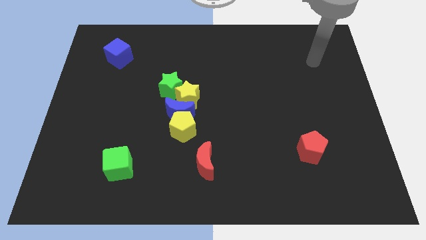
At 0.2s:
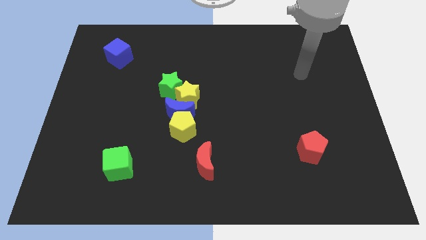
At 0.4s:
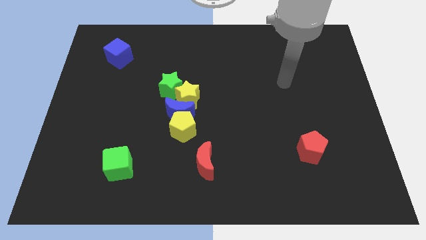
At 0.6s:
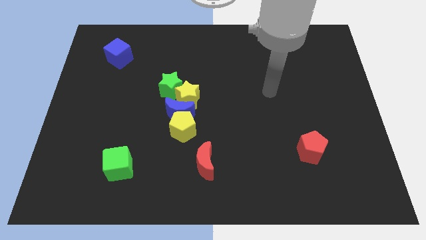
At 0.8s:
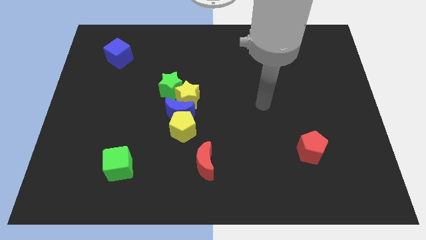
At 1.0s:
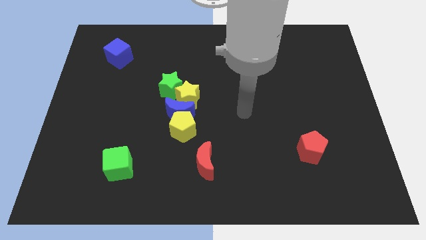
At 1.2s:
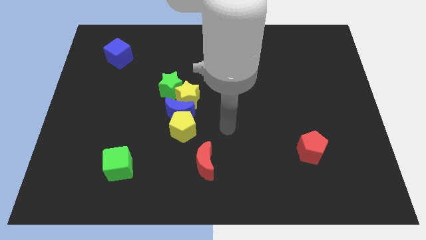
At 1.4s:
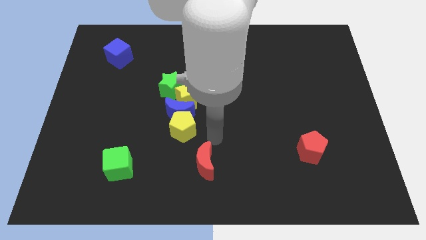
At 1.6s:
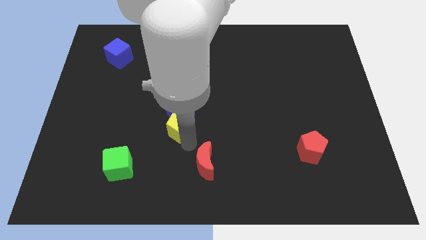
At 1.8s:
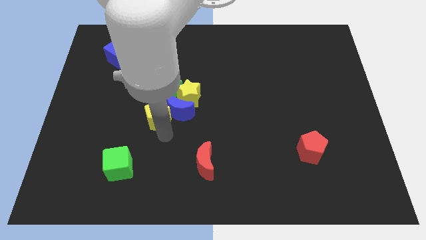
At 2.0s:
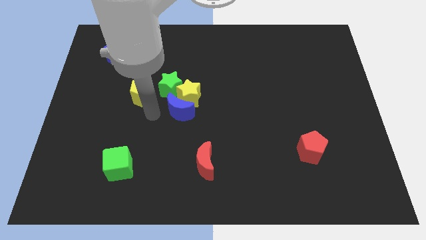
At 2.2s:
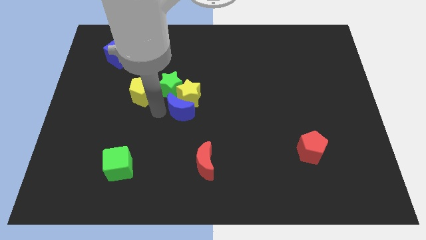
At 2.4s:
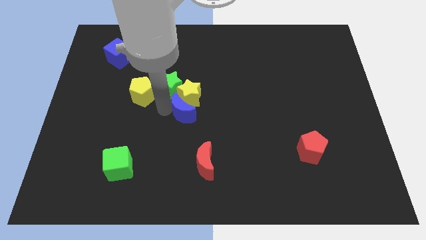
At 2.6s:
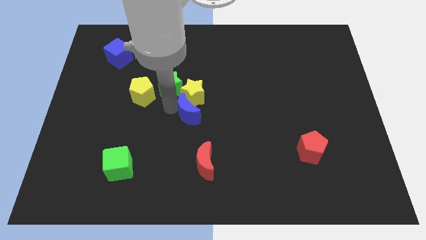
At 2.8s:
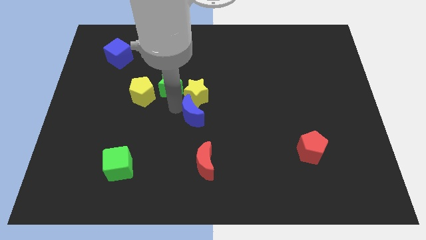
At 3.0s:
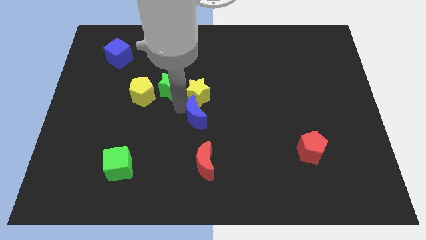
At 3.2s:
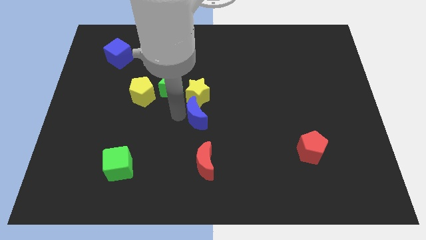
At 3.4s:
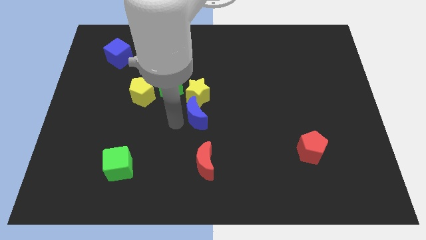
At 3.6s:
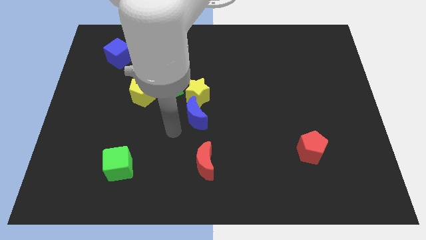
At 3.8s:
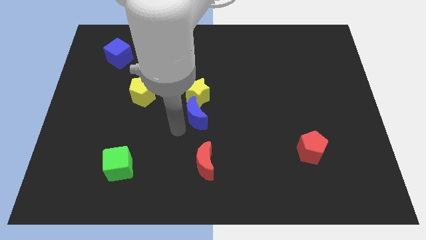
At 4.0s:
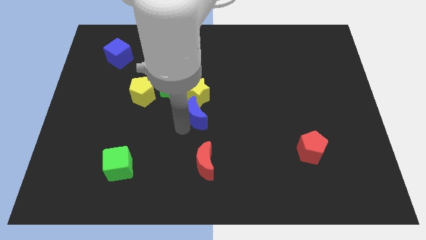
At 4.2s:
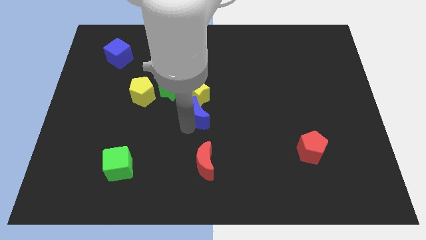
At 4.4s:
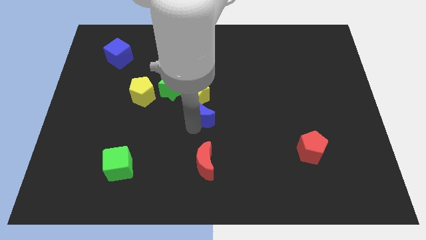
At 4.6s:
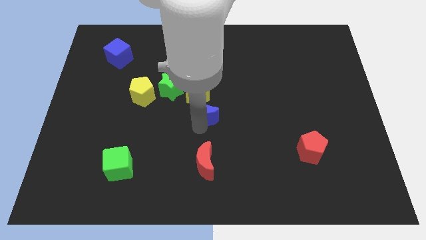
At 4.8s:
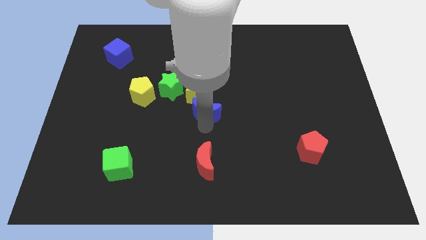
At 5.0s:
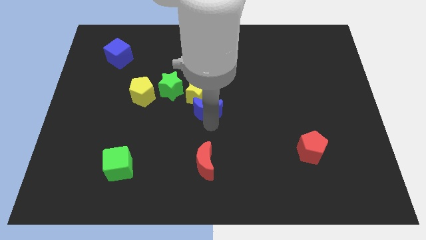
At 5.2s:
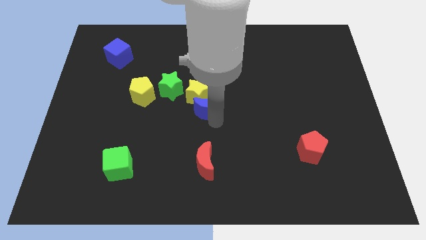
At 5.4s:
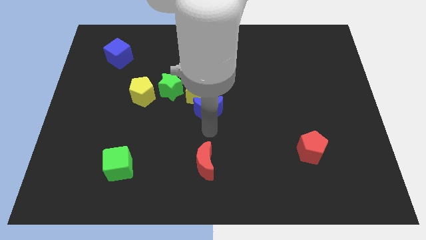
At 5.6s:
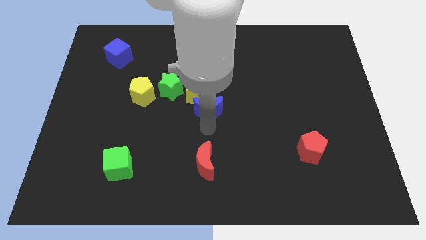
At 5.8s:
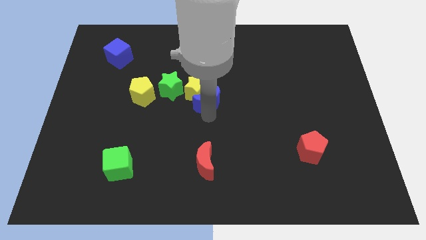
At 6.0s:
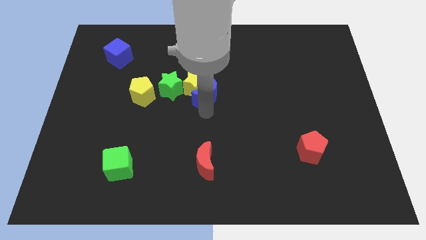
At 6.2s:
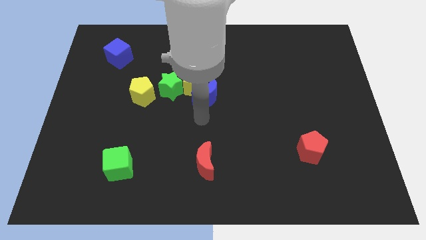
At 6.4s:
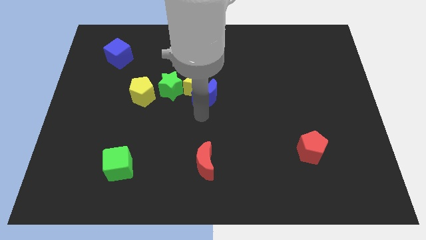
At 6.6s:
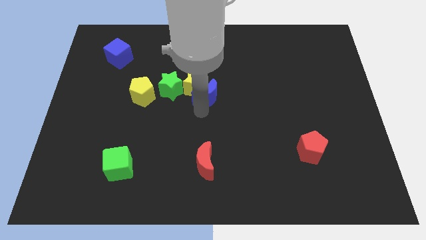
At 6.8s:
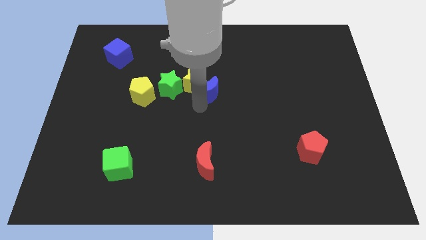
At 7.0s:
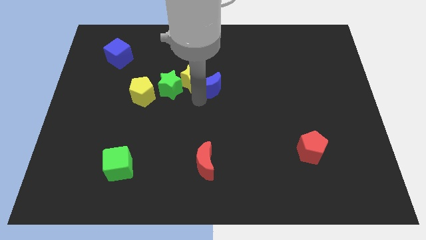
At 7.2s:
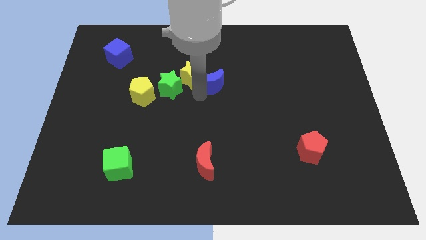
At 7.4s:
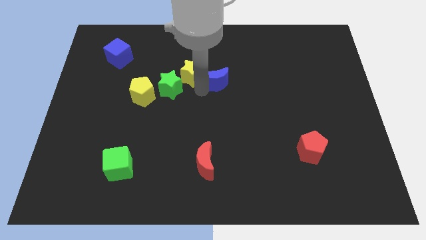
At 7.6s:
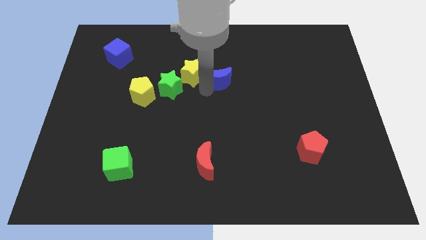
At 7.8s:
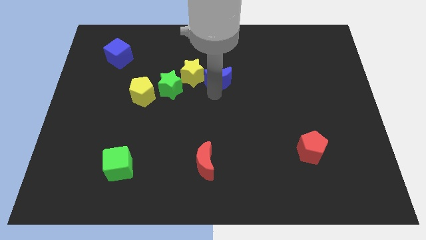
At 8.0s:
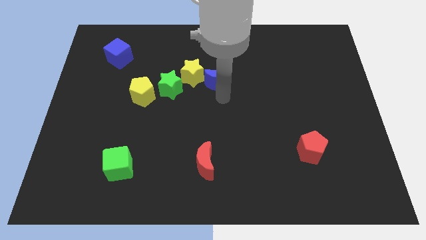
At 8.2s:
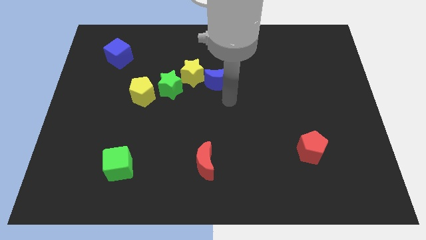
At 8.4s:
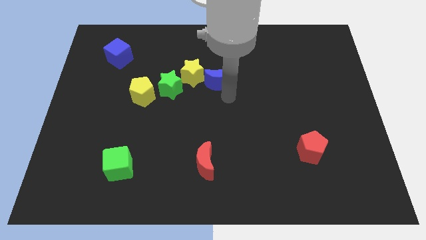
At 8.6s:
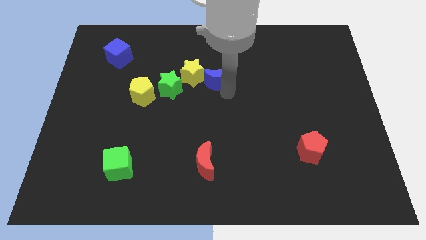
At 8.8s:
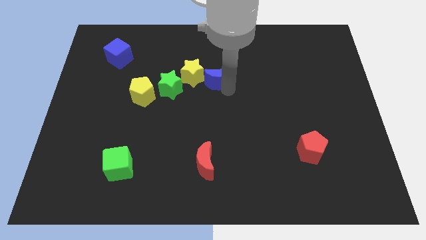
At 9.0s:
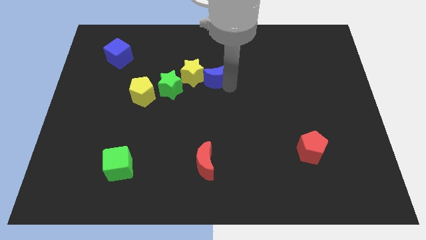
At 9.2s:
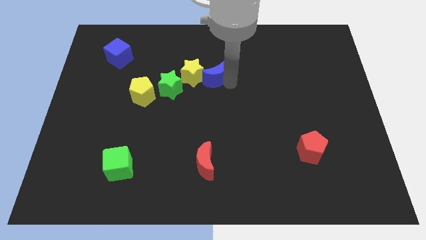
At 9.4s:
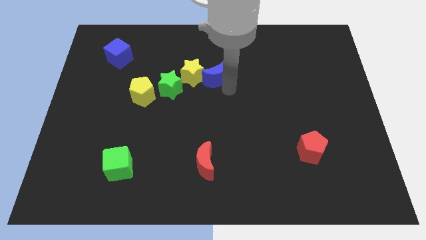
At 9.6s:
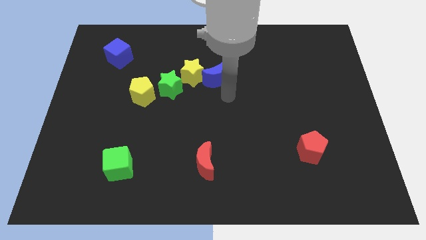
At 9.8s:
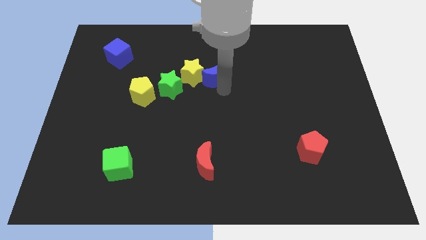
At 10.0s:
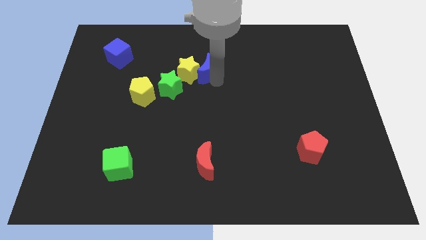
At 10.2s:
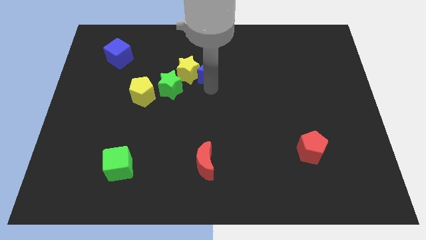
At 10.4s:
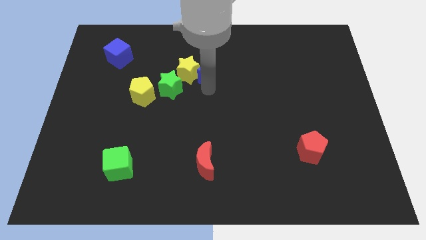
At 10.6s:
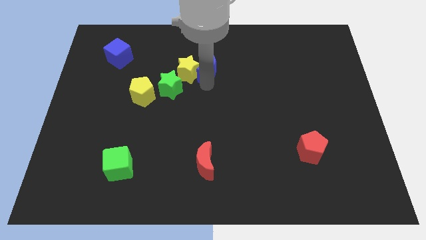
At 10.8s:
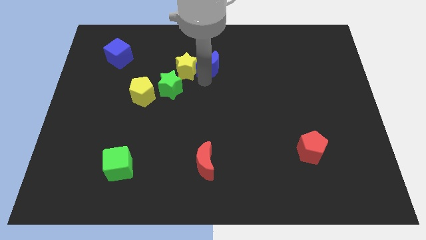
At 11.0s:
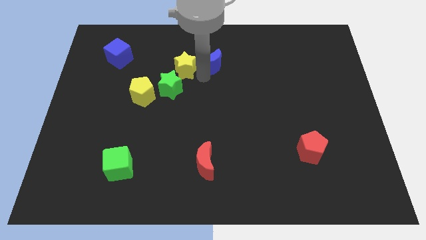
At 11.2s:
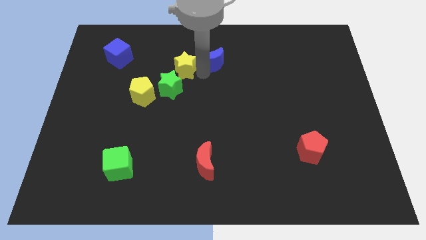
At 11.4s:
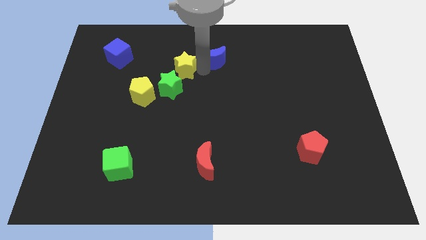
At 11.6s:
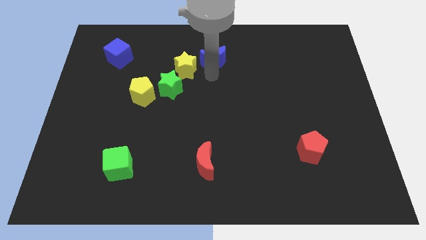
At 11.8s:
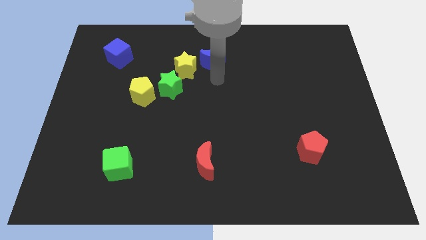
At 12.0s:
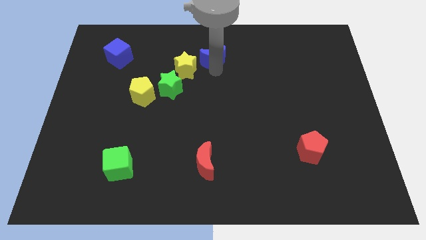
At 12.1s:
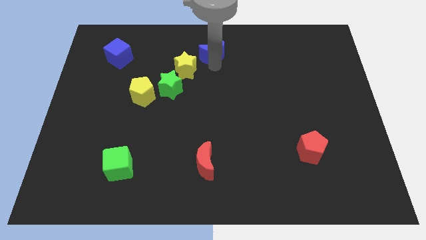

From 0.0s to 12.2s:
move the blue moon to the towards your base

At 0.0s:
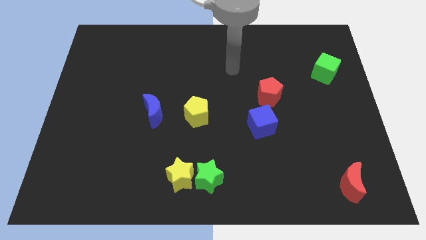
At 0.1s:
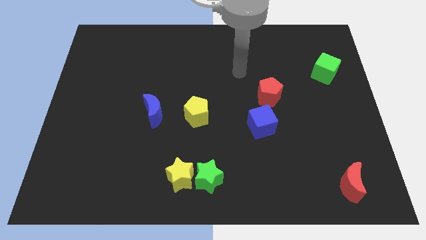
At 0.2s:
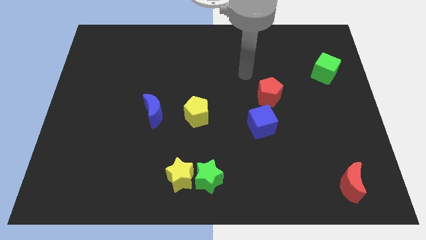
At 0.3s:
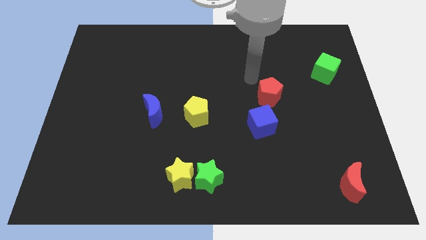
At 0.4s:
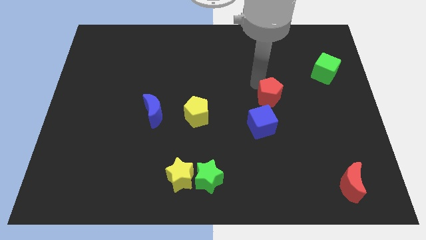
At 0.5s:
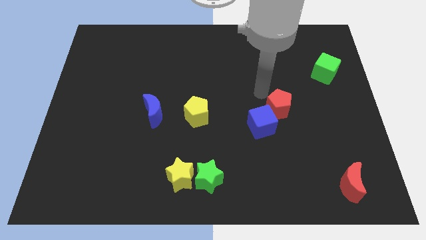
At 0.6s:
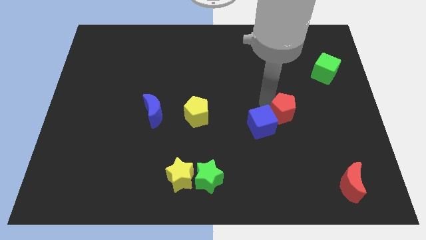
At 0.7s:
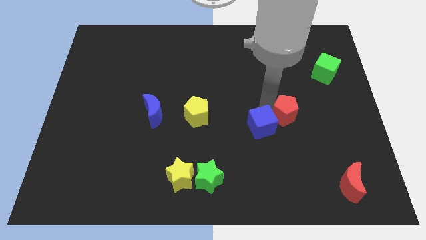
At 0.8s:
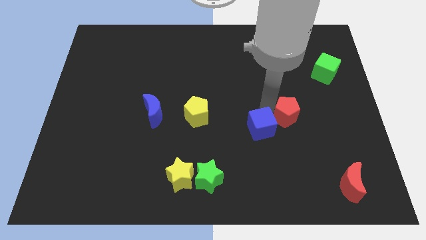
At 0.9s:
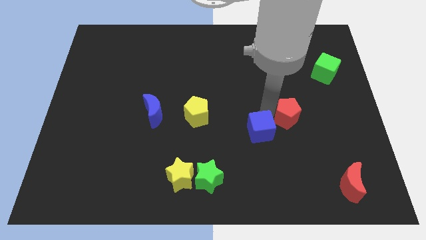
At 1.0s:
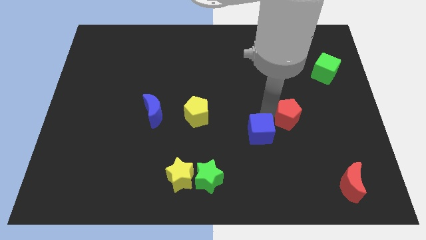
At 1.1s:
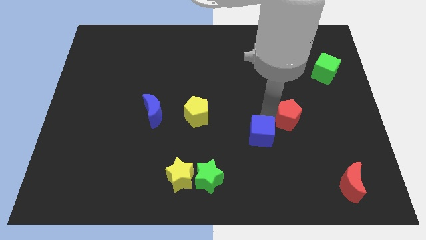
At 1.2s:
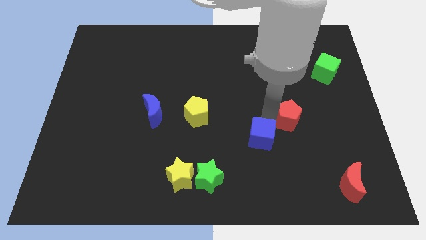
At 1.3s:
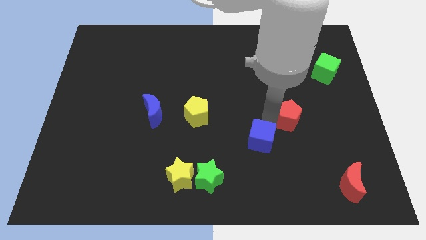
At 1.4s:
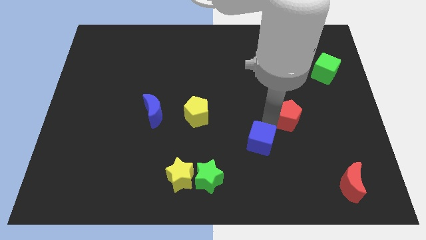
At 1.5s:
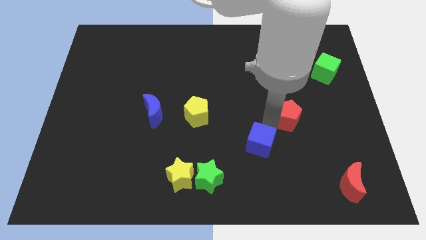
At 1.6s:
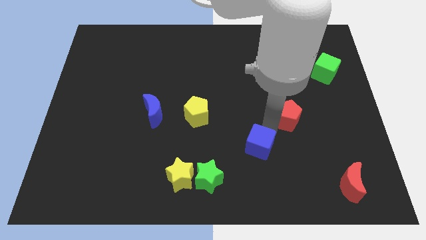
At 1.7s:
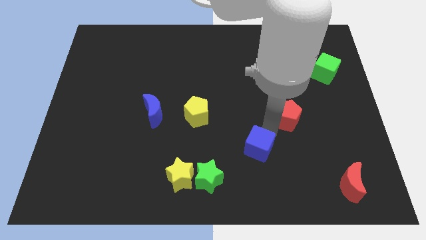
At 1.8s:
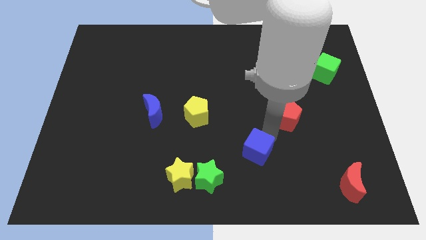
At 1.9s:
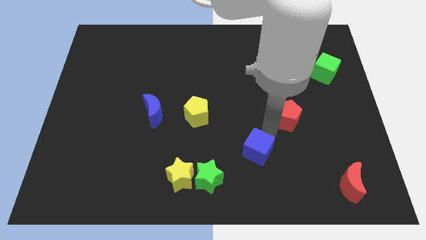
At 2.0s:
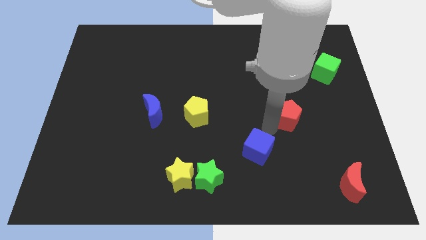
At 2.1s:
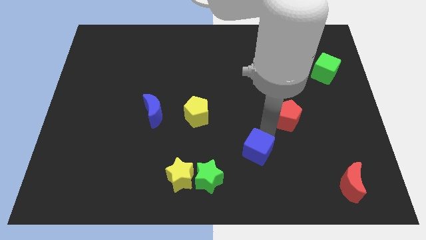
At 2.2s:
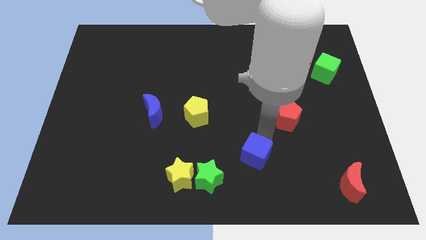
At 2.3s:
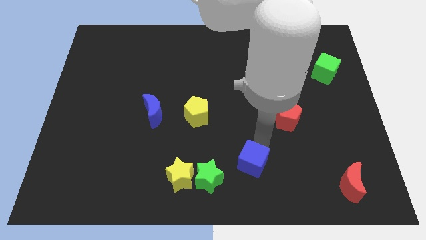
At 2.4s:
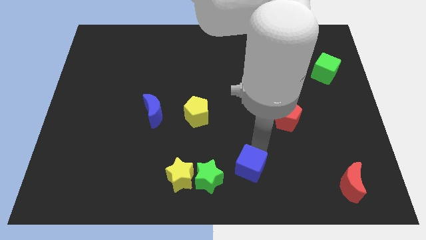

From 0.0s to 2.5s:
put the blue cube to the bottom
